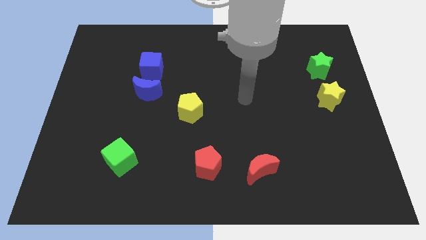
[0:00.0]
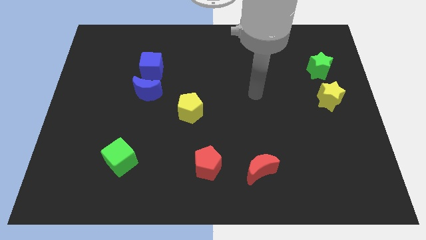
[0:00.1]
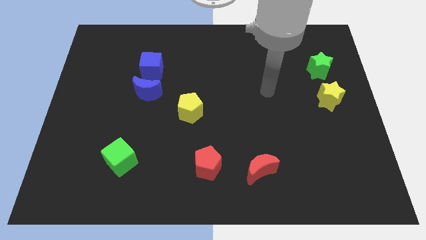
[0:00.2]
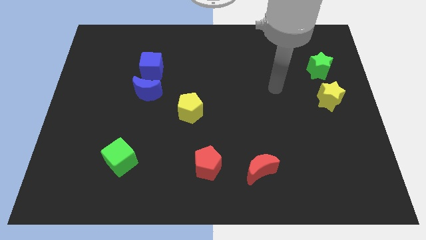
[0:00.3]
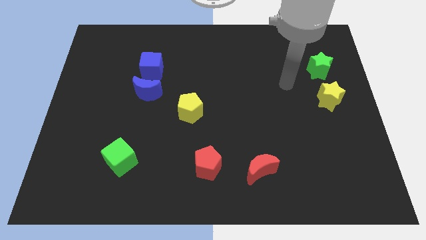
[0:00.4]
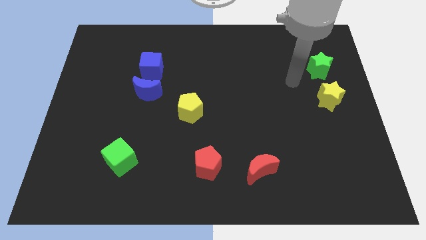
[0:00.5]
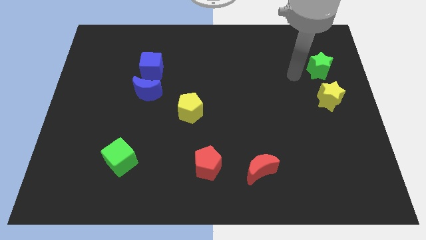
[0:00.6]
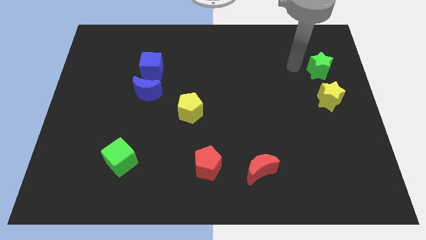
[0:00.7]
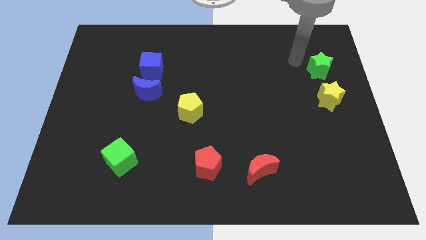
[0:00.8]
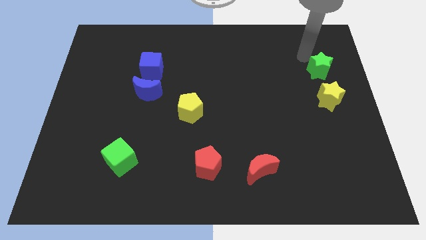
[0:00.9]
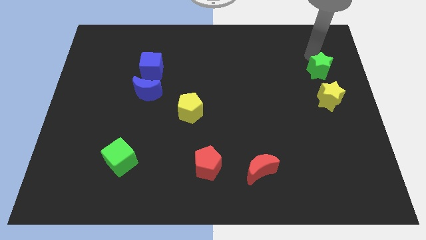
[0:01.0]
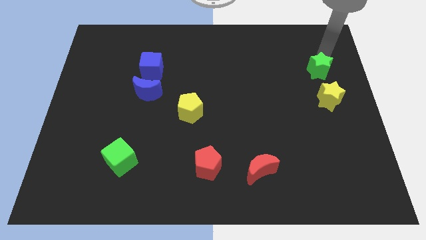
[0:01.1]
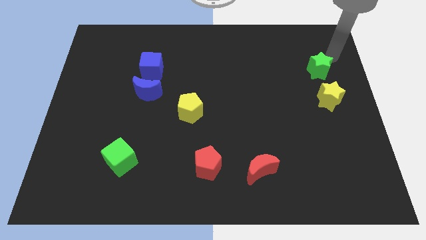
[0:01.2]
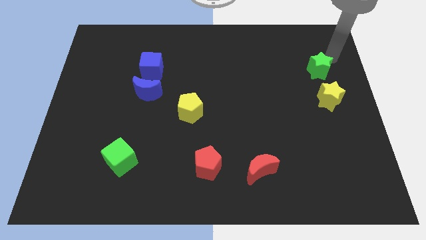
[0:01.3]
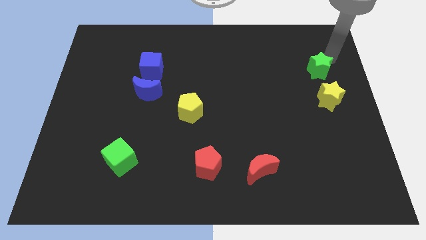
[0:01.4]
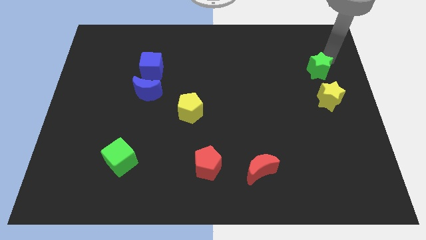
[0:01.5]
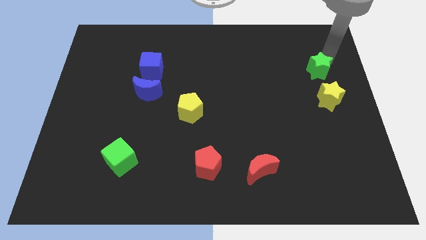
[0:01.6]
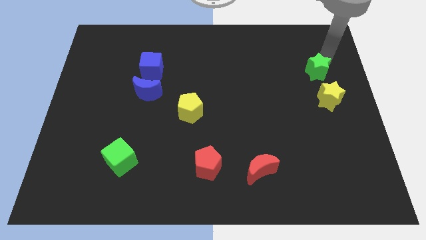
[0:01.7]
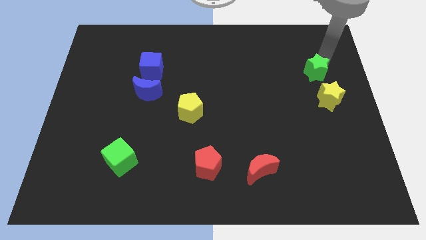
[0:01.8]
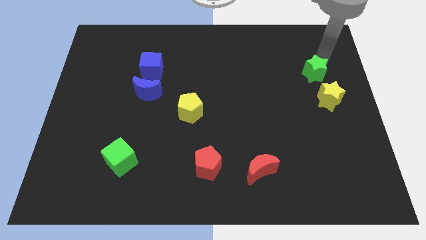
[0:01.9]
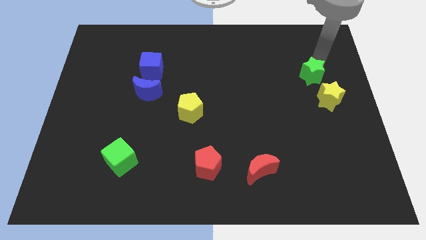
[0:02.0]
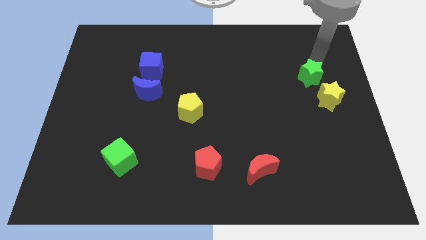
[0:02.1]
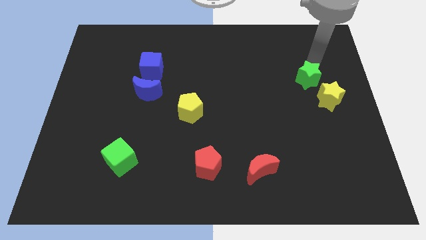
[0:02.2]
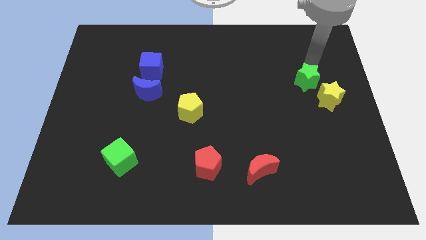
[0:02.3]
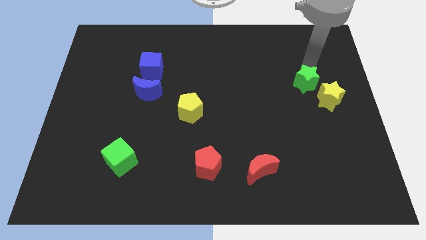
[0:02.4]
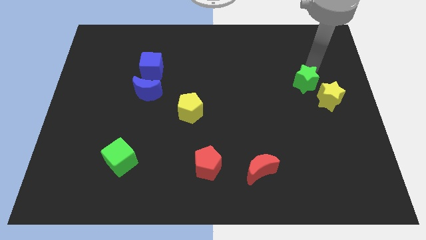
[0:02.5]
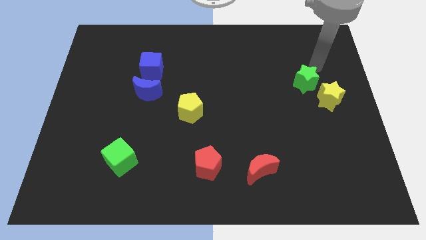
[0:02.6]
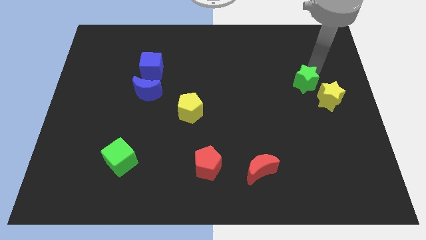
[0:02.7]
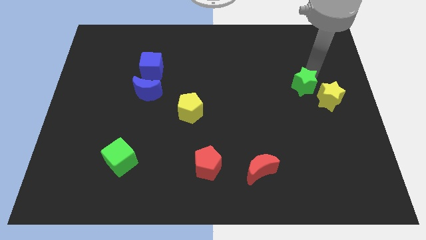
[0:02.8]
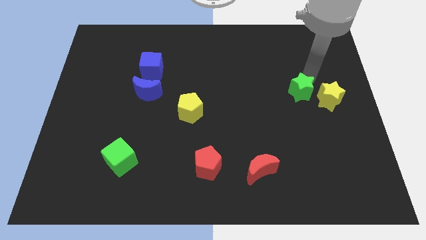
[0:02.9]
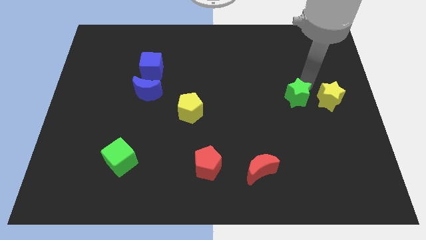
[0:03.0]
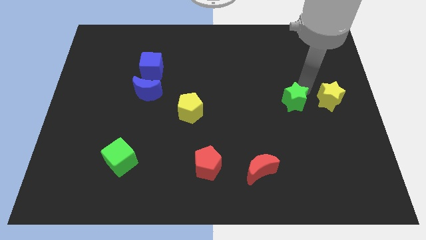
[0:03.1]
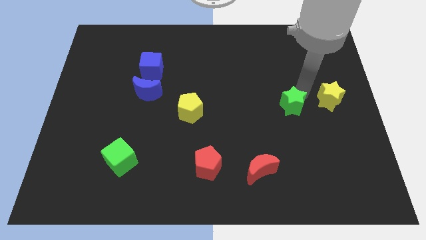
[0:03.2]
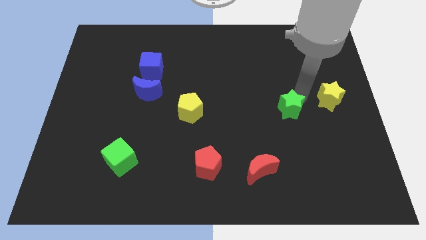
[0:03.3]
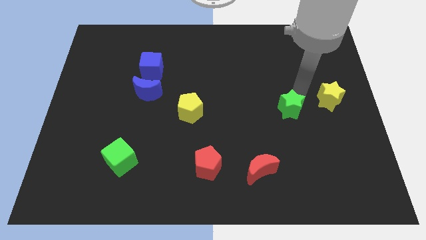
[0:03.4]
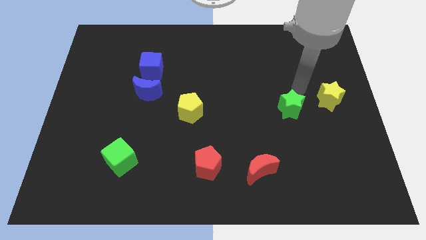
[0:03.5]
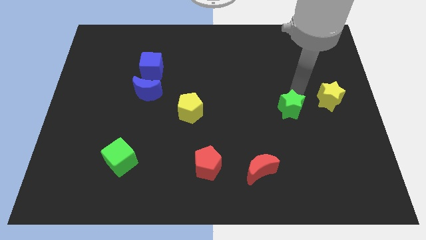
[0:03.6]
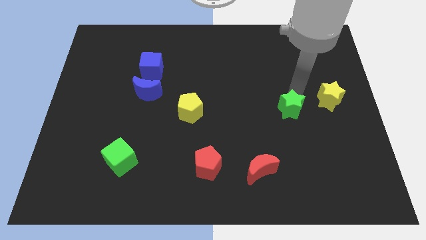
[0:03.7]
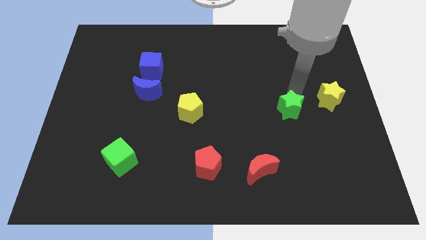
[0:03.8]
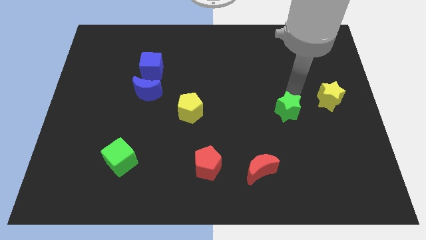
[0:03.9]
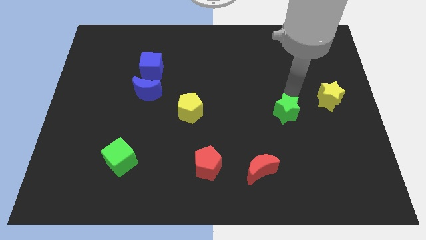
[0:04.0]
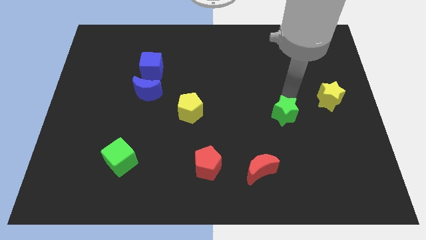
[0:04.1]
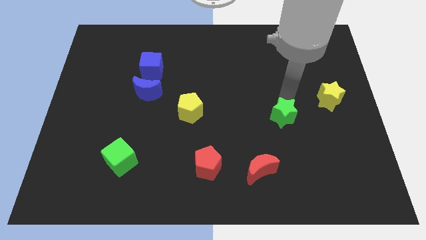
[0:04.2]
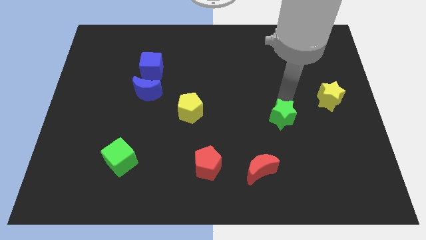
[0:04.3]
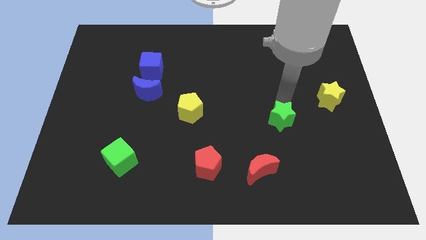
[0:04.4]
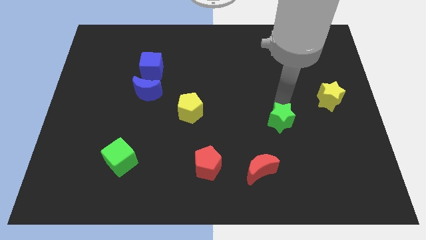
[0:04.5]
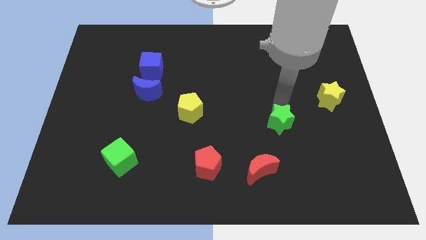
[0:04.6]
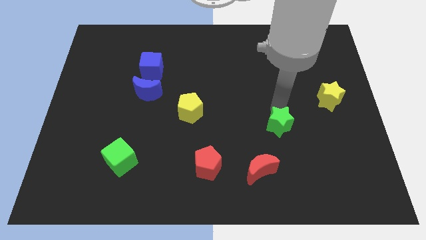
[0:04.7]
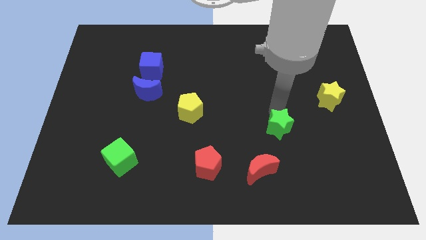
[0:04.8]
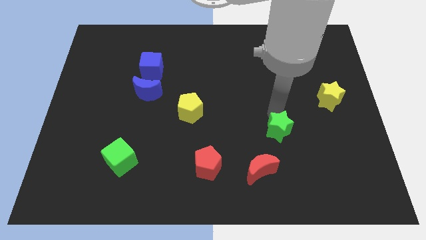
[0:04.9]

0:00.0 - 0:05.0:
slide the green star diagonally up and to the right of the red moon

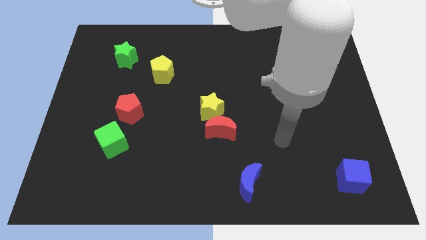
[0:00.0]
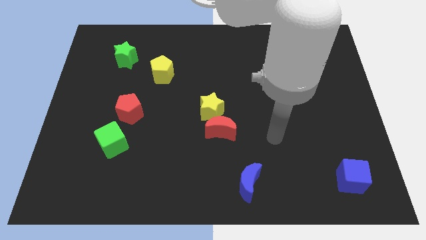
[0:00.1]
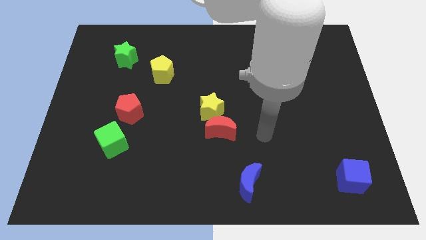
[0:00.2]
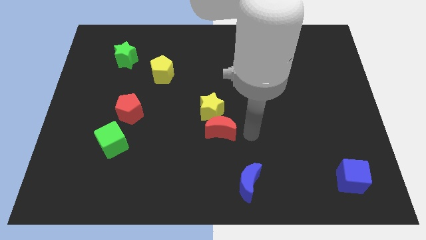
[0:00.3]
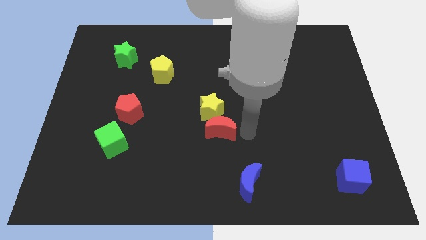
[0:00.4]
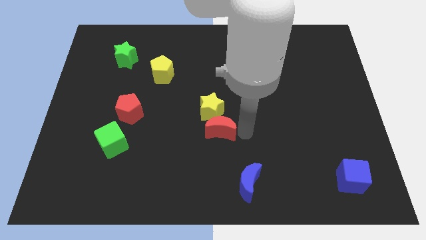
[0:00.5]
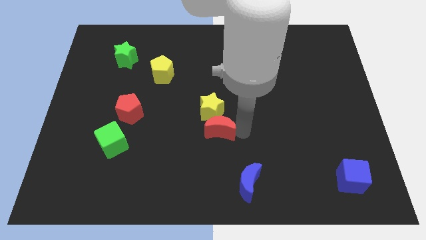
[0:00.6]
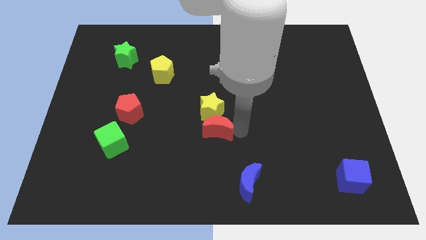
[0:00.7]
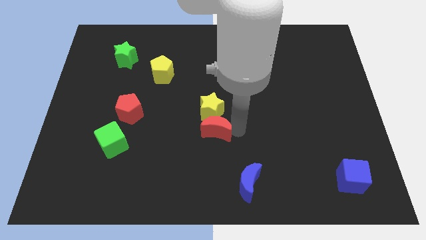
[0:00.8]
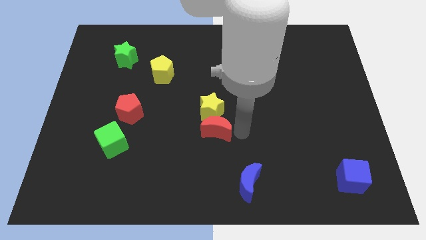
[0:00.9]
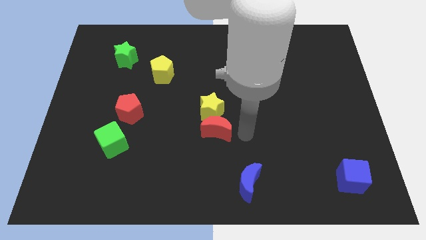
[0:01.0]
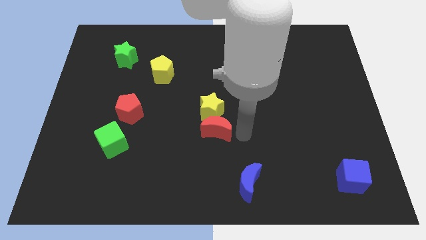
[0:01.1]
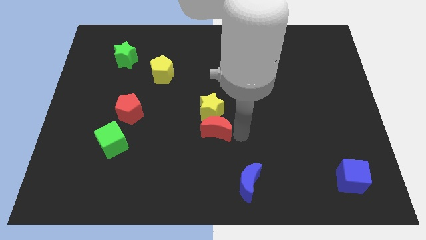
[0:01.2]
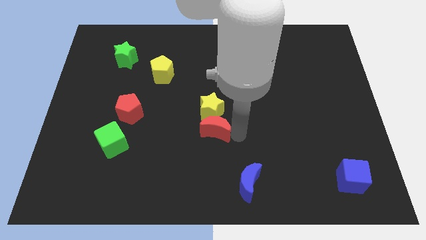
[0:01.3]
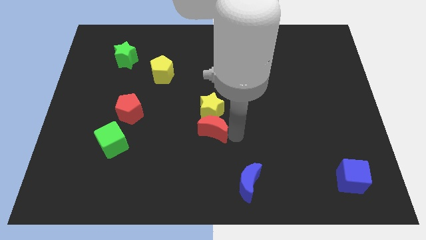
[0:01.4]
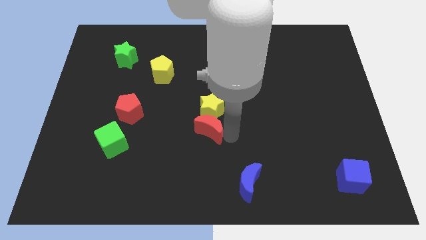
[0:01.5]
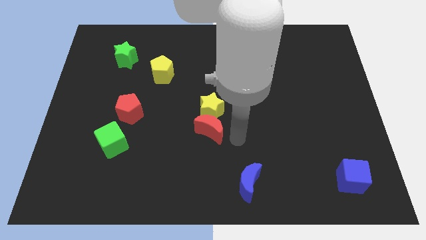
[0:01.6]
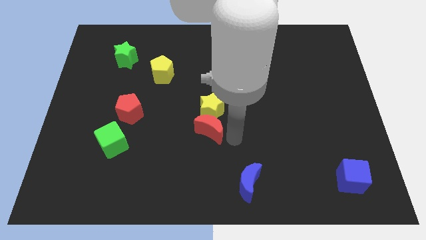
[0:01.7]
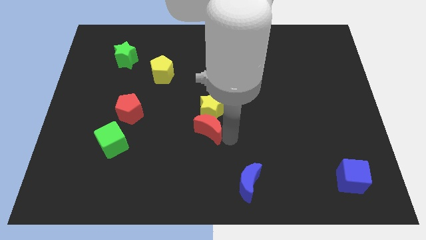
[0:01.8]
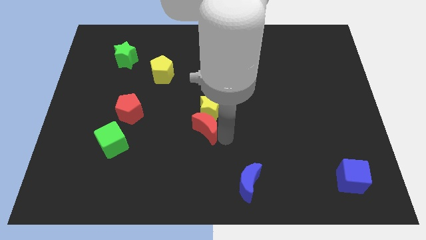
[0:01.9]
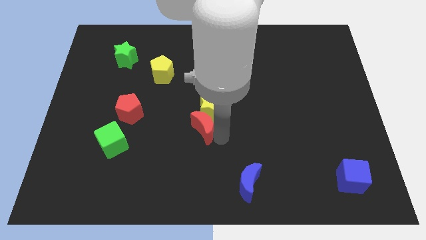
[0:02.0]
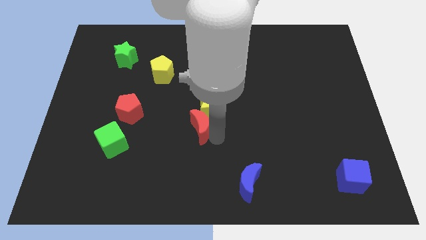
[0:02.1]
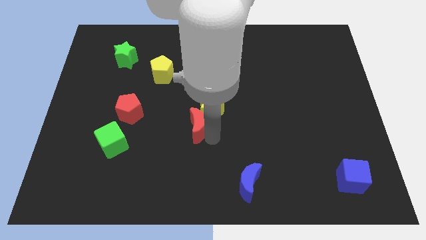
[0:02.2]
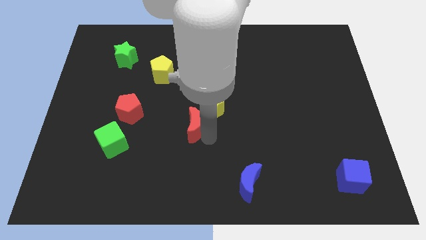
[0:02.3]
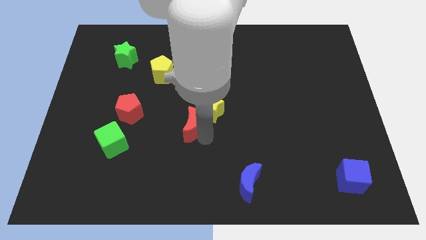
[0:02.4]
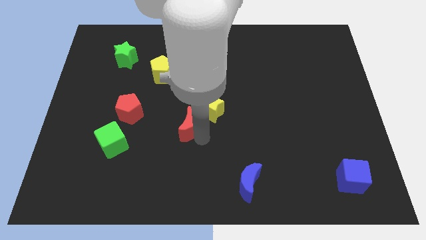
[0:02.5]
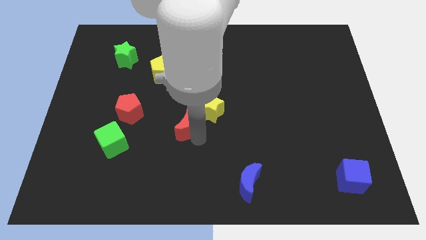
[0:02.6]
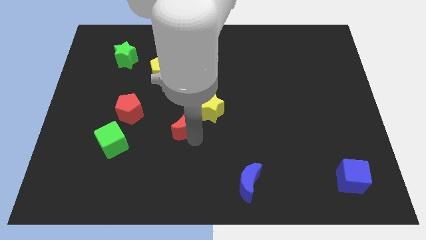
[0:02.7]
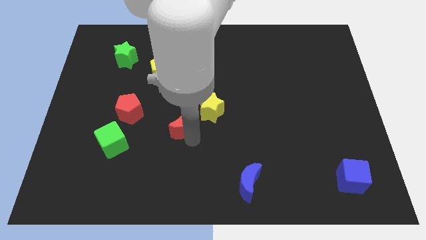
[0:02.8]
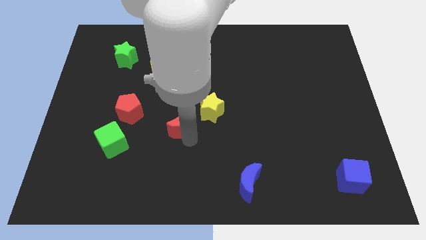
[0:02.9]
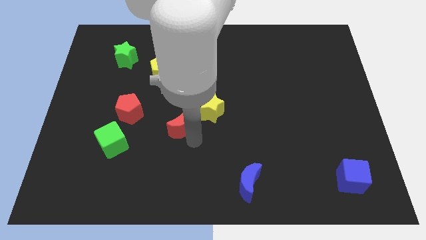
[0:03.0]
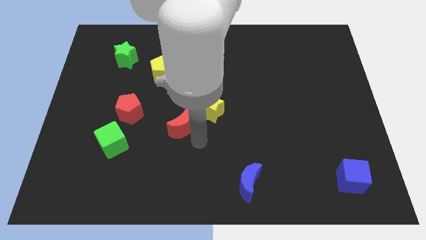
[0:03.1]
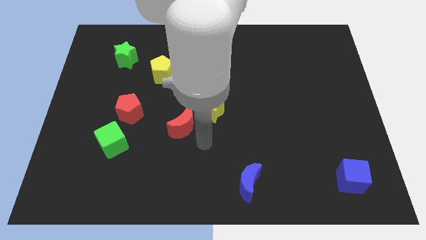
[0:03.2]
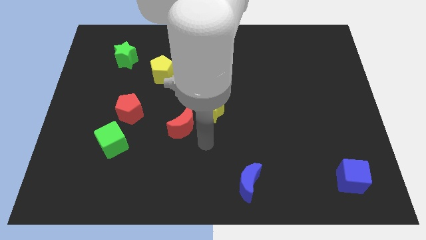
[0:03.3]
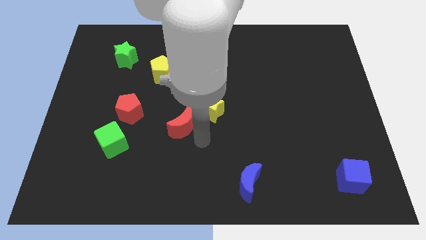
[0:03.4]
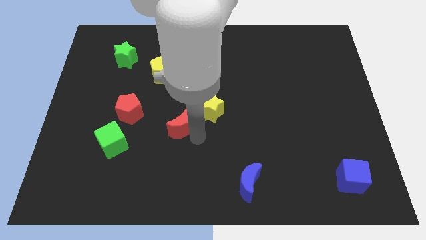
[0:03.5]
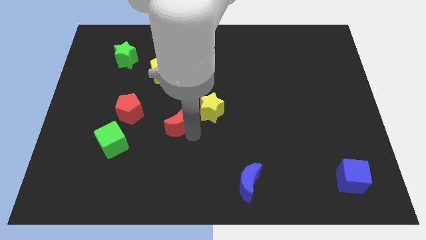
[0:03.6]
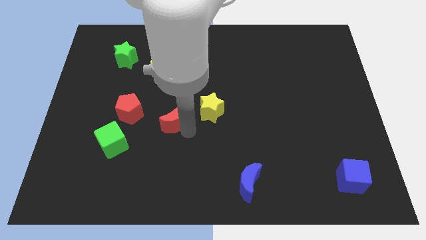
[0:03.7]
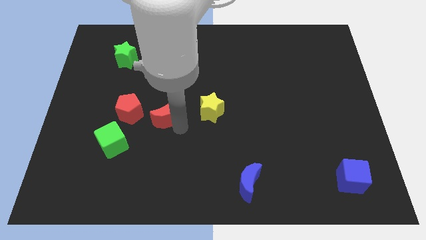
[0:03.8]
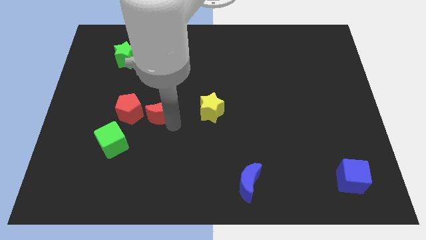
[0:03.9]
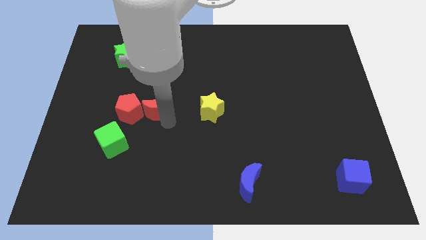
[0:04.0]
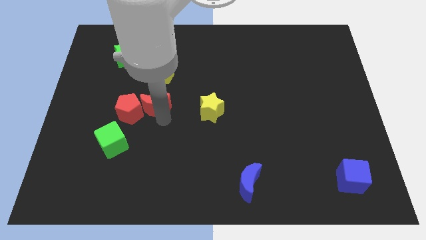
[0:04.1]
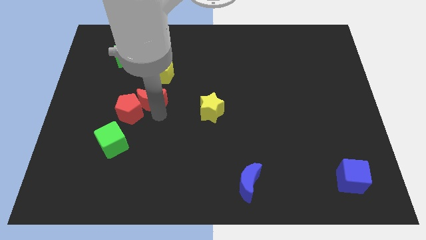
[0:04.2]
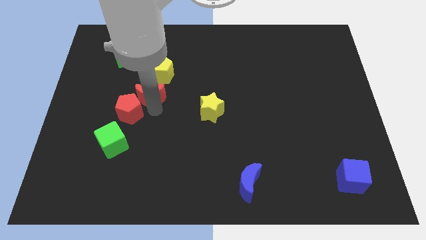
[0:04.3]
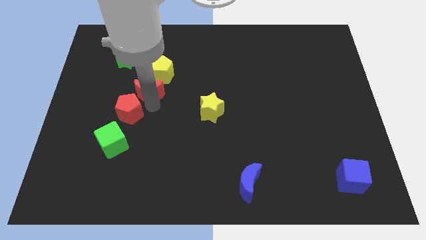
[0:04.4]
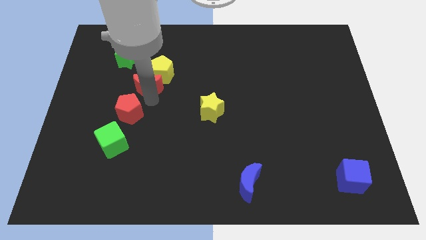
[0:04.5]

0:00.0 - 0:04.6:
push the red moon to the bottom right of the green star
